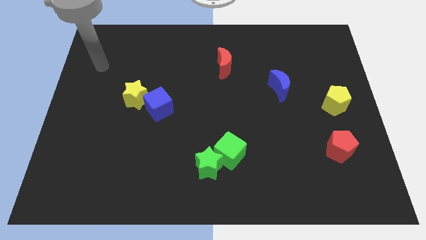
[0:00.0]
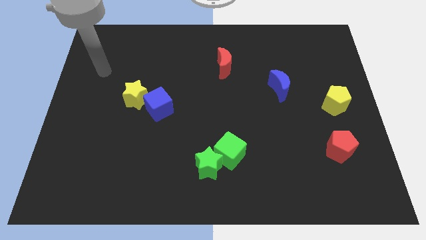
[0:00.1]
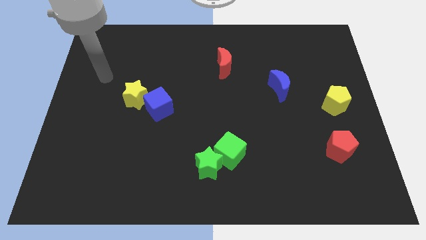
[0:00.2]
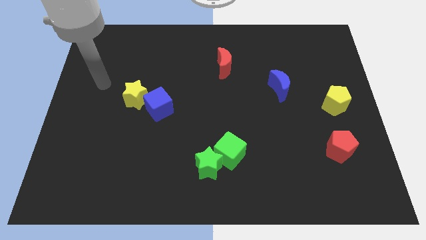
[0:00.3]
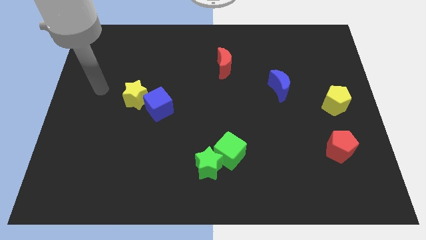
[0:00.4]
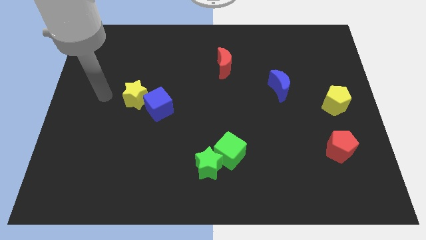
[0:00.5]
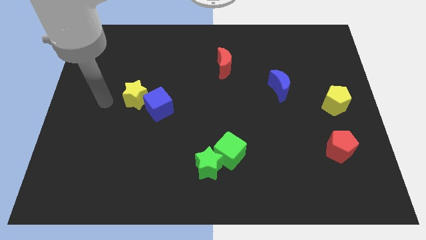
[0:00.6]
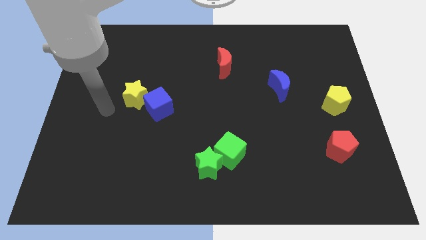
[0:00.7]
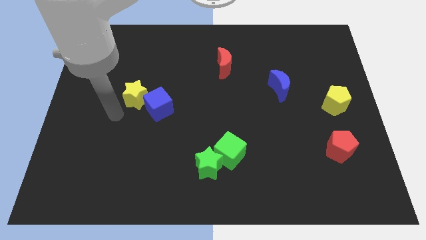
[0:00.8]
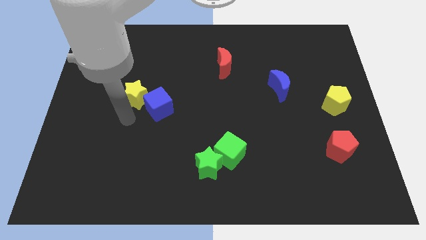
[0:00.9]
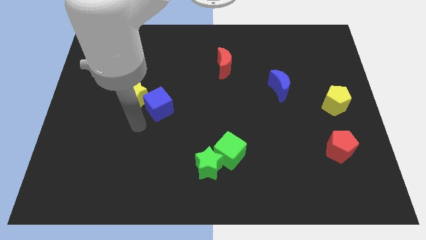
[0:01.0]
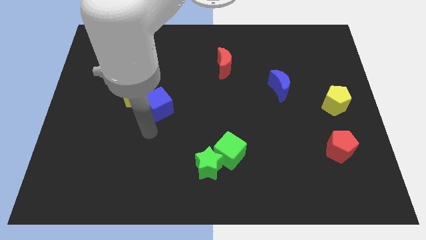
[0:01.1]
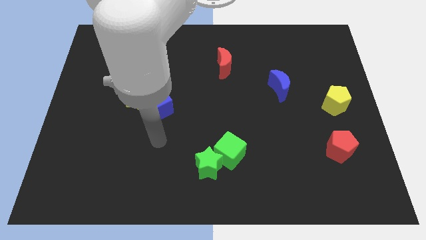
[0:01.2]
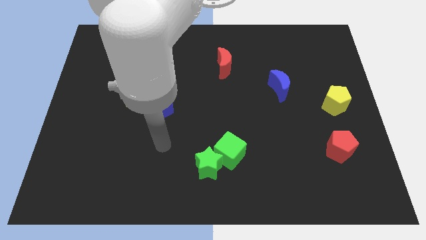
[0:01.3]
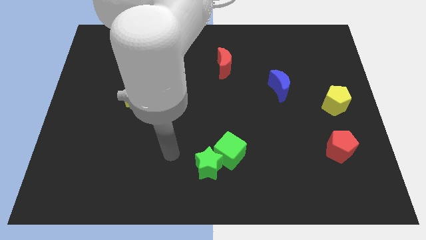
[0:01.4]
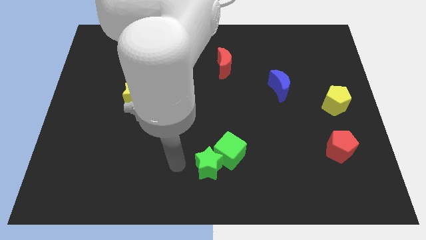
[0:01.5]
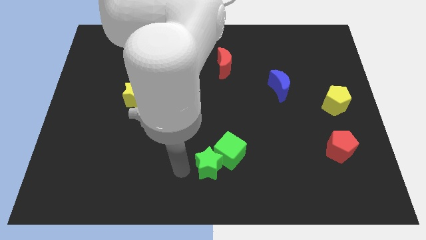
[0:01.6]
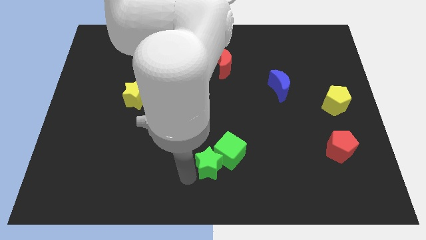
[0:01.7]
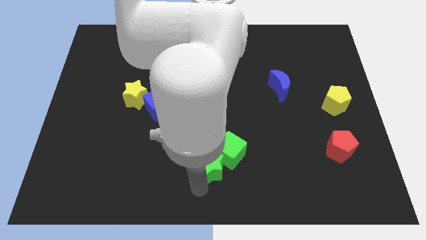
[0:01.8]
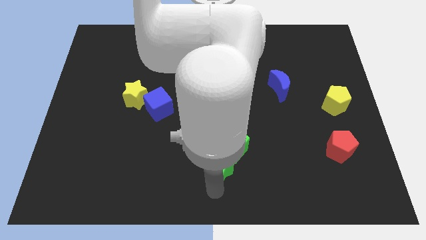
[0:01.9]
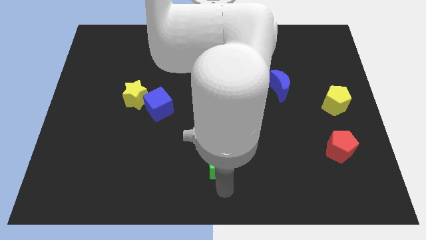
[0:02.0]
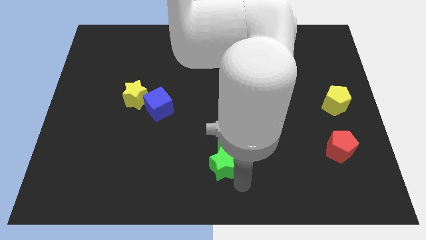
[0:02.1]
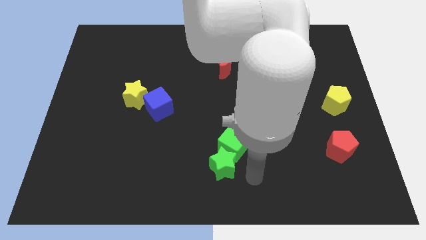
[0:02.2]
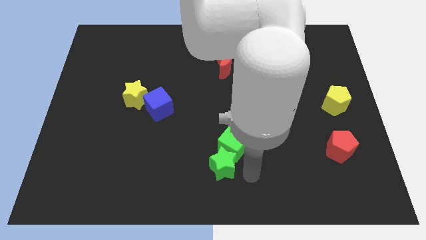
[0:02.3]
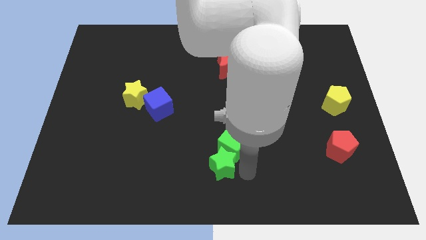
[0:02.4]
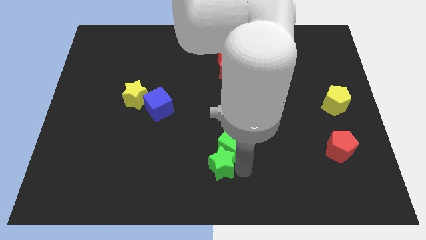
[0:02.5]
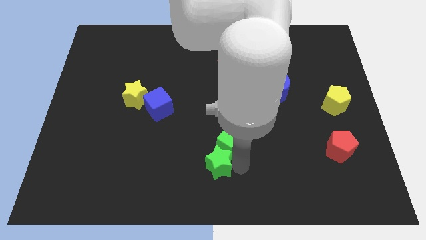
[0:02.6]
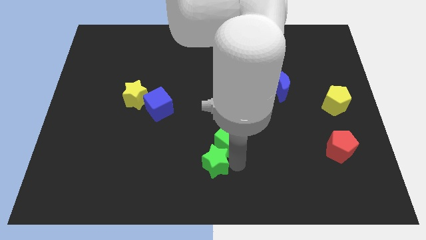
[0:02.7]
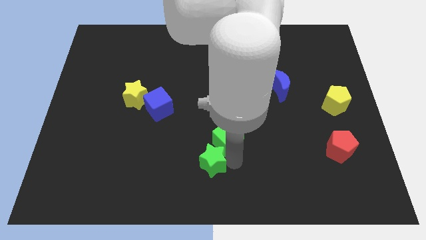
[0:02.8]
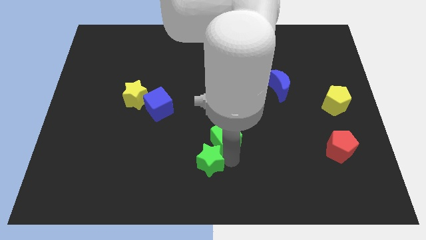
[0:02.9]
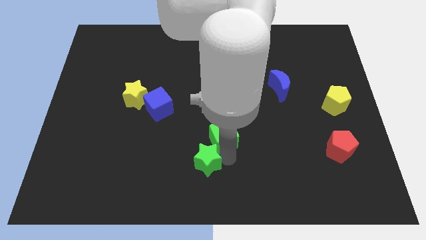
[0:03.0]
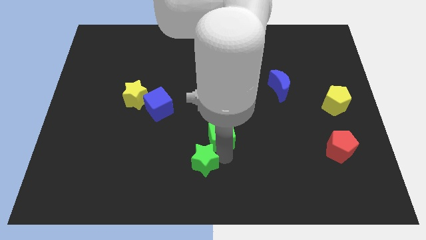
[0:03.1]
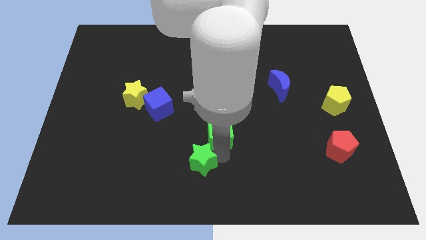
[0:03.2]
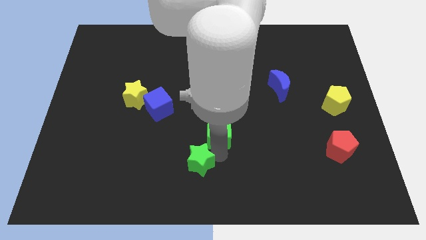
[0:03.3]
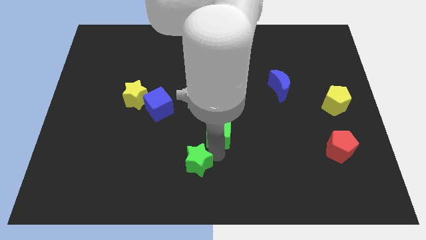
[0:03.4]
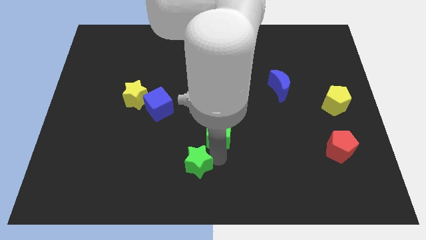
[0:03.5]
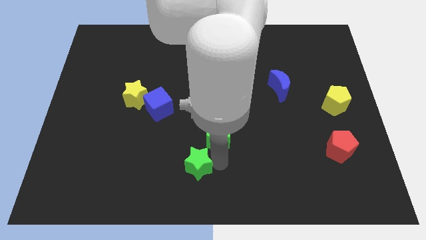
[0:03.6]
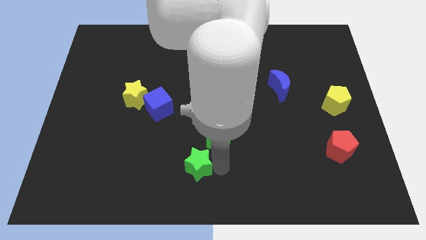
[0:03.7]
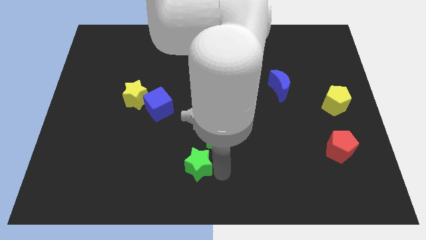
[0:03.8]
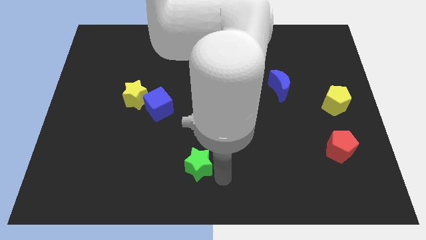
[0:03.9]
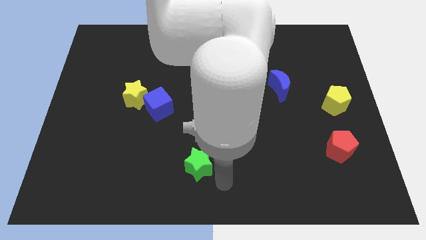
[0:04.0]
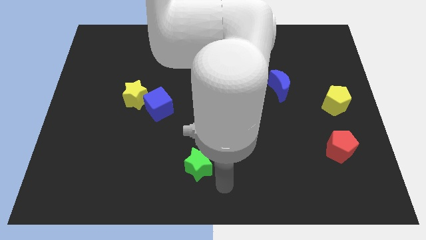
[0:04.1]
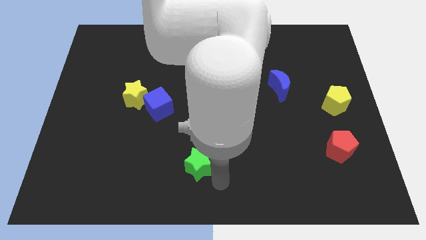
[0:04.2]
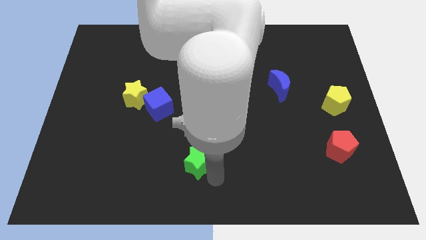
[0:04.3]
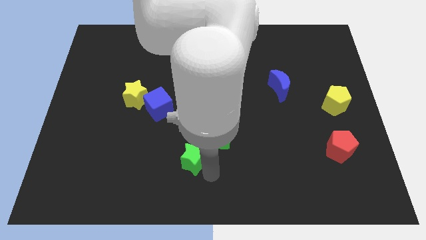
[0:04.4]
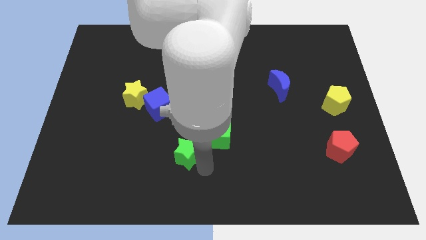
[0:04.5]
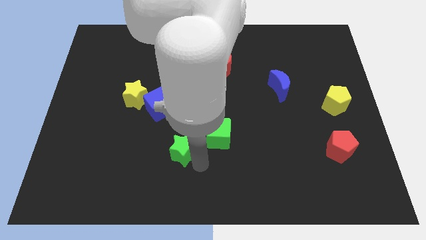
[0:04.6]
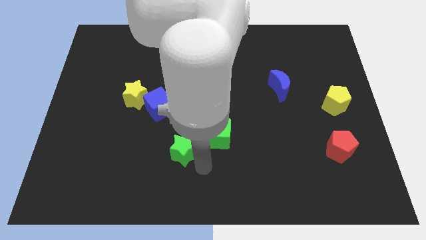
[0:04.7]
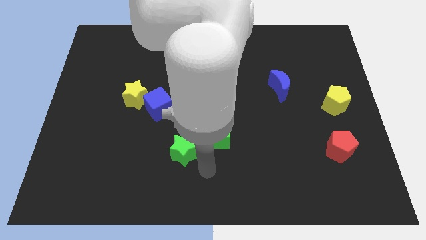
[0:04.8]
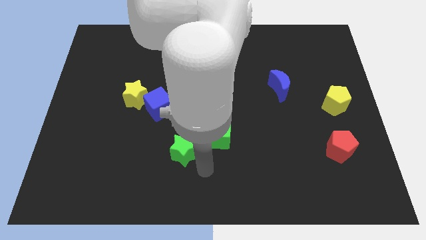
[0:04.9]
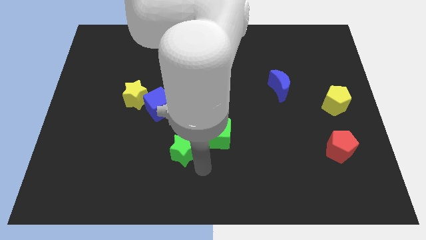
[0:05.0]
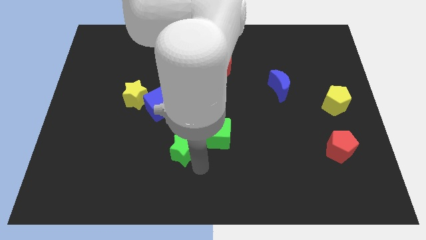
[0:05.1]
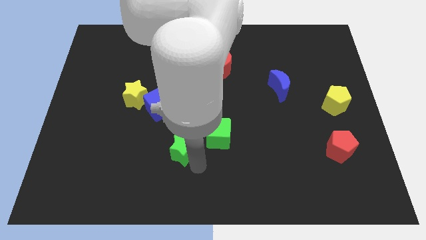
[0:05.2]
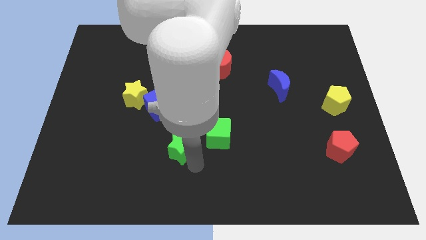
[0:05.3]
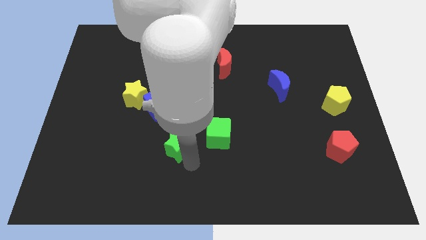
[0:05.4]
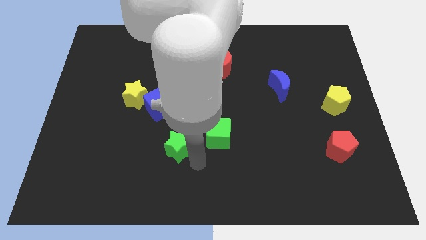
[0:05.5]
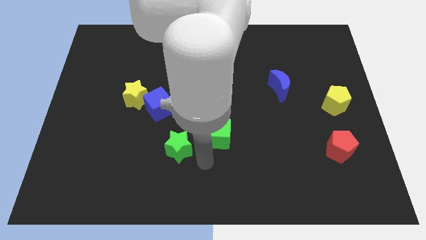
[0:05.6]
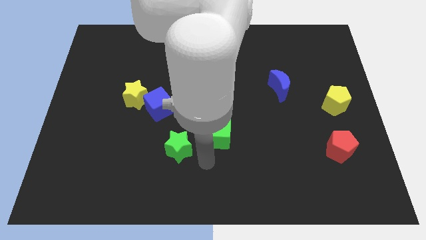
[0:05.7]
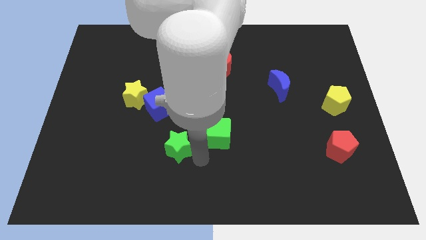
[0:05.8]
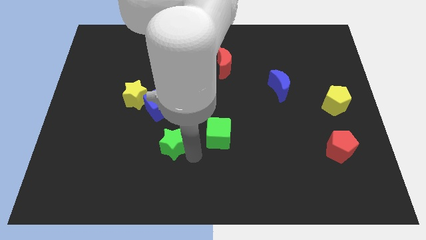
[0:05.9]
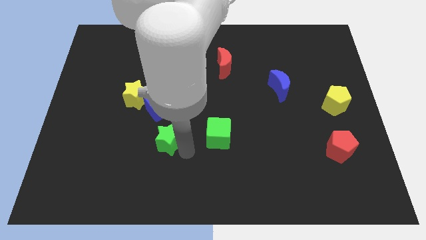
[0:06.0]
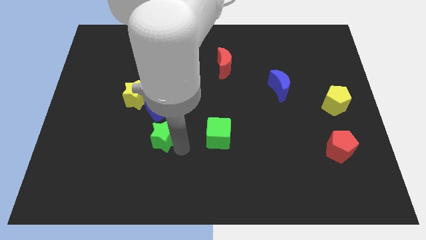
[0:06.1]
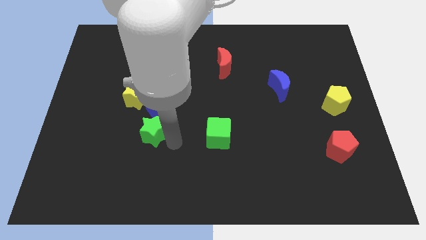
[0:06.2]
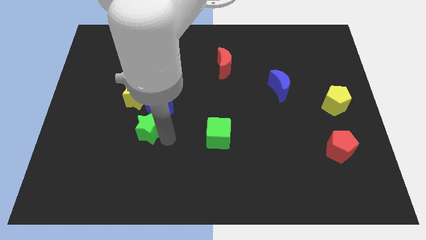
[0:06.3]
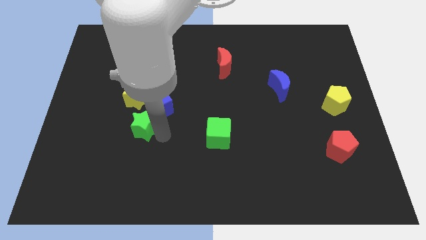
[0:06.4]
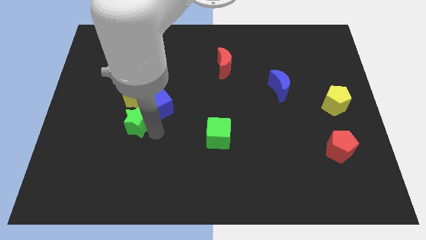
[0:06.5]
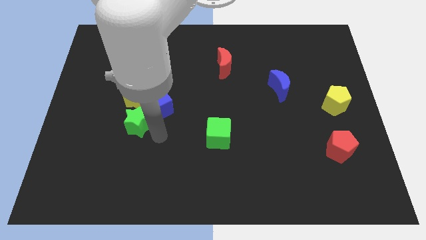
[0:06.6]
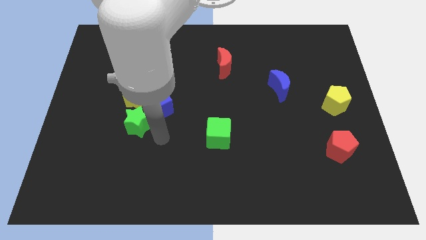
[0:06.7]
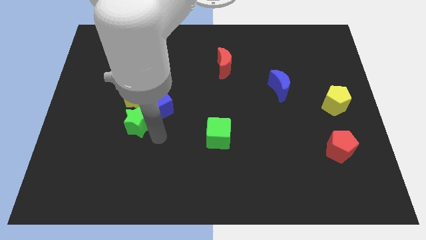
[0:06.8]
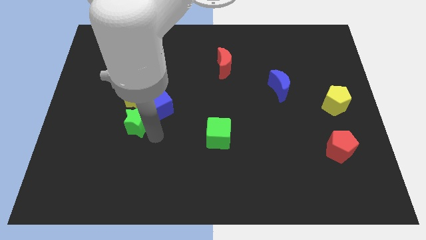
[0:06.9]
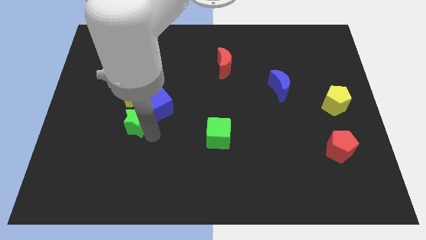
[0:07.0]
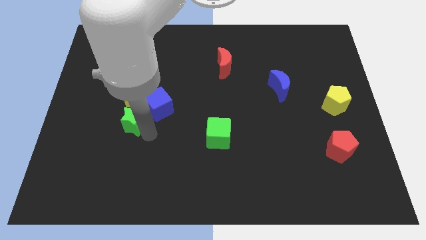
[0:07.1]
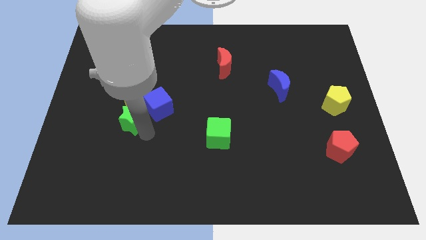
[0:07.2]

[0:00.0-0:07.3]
push the green star up and left

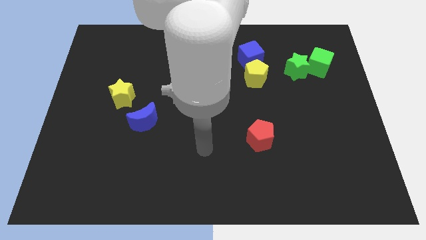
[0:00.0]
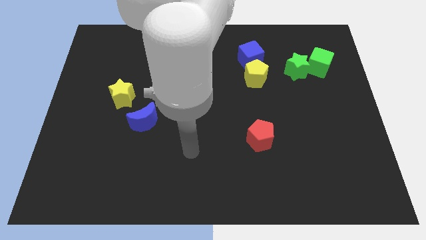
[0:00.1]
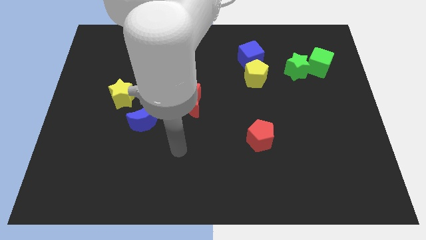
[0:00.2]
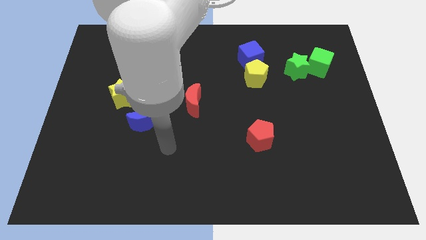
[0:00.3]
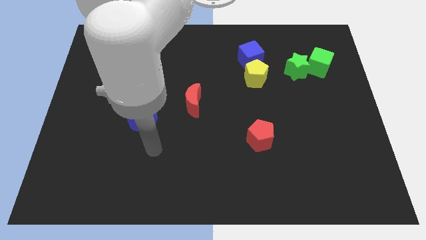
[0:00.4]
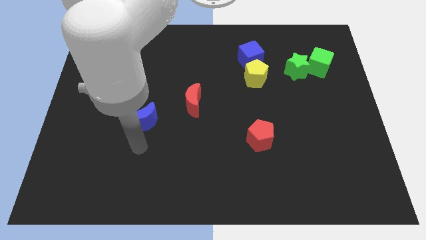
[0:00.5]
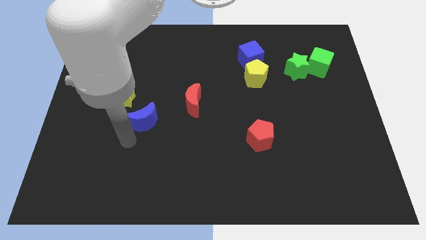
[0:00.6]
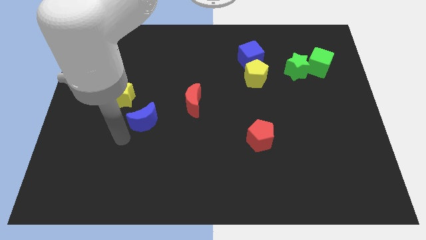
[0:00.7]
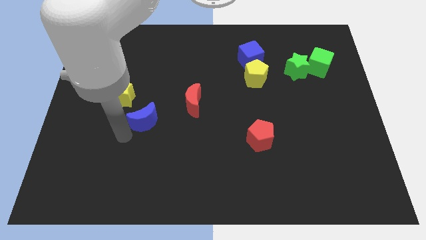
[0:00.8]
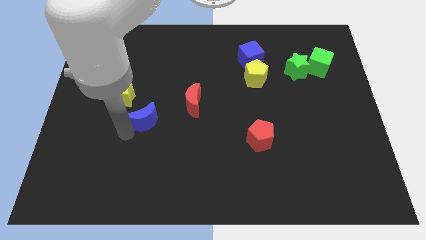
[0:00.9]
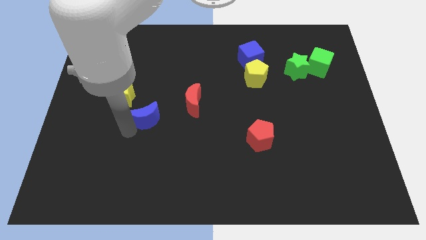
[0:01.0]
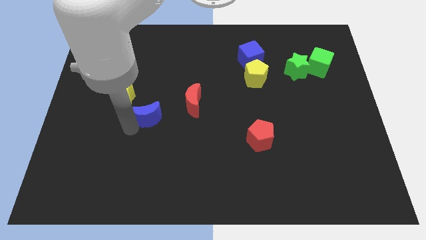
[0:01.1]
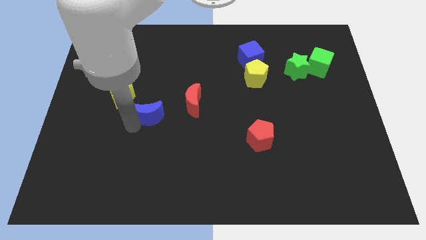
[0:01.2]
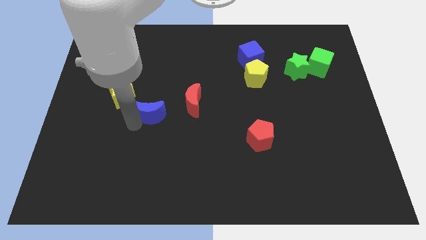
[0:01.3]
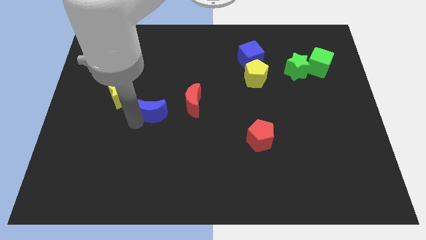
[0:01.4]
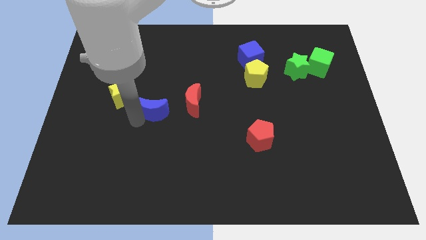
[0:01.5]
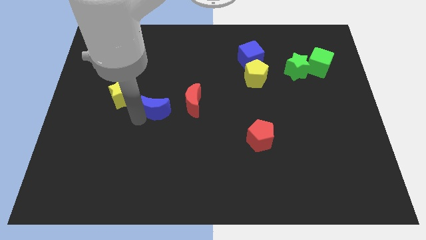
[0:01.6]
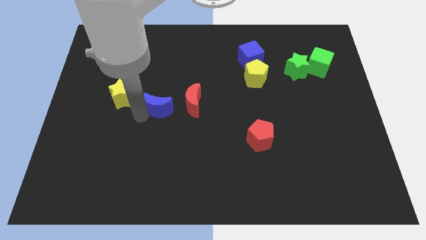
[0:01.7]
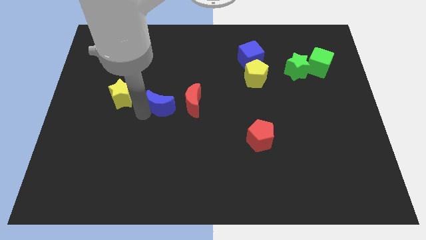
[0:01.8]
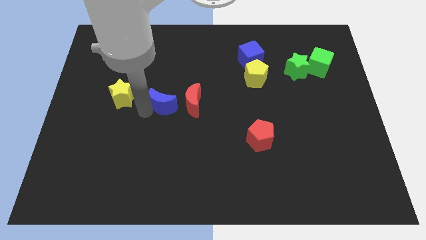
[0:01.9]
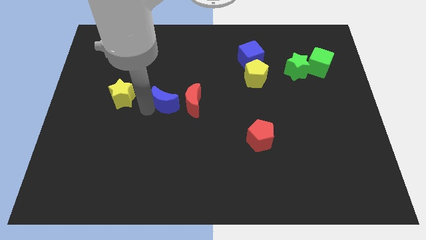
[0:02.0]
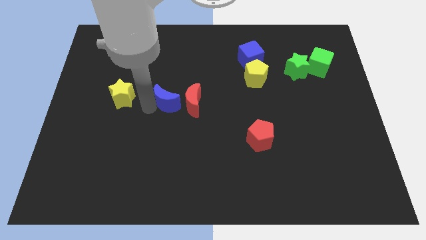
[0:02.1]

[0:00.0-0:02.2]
slide the blue moon diagonally upwards and right somewhat
